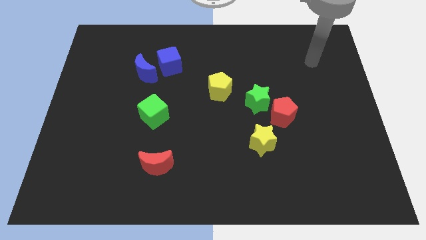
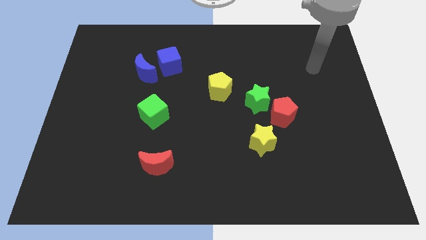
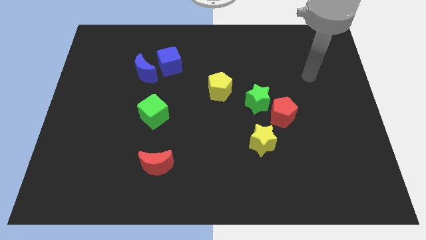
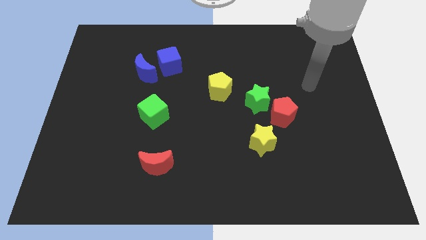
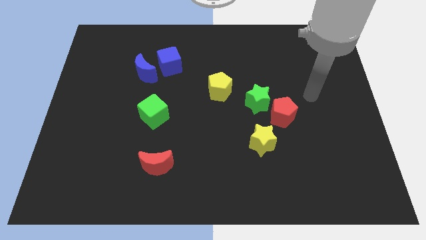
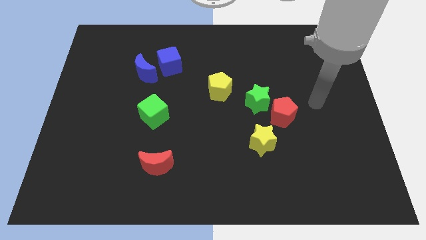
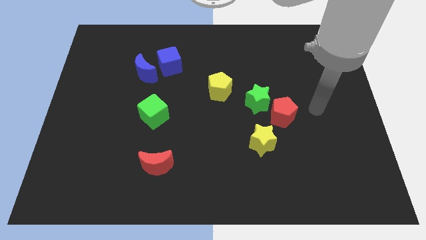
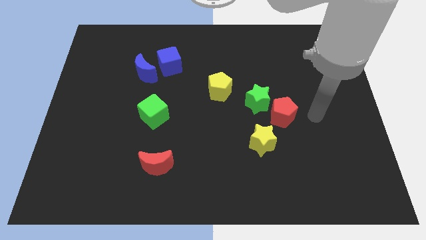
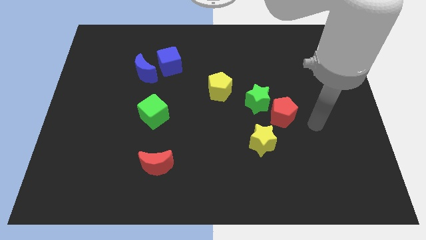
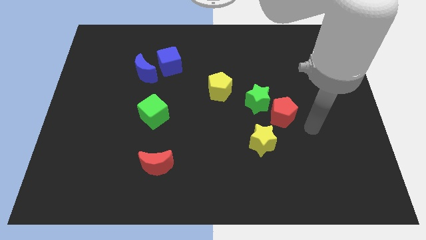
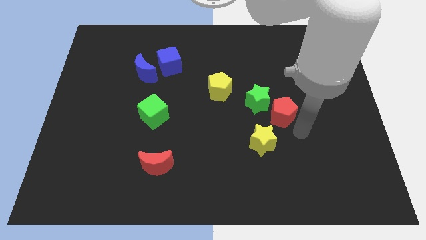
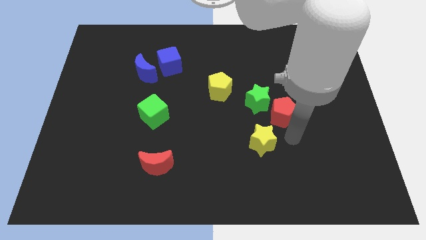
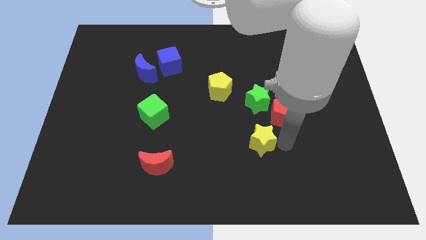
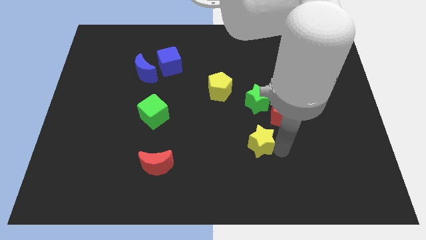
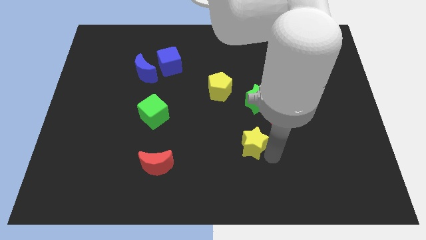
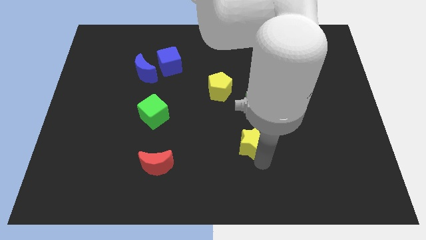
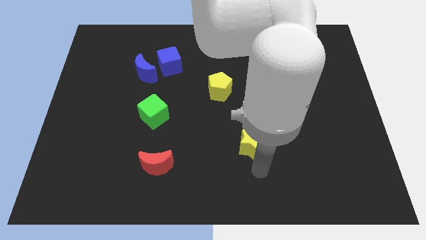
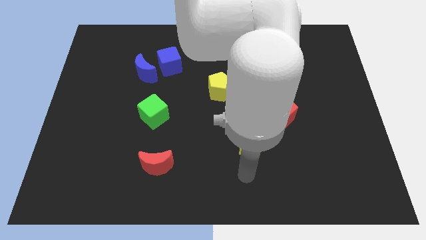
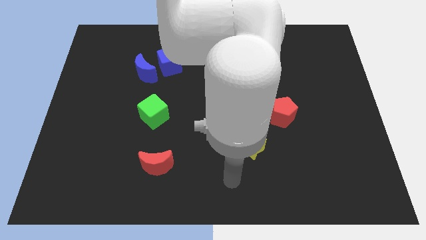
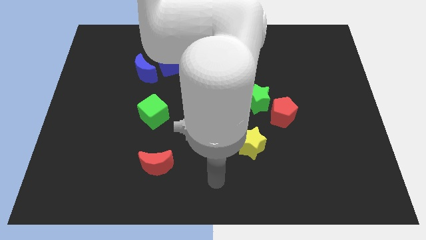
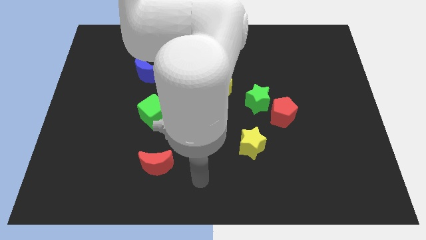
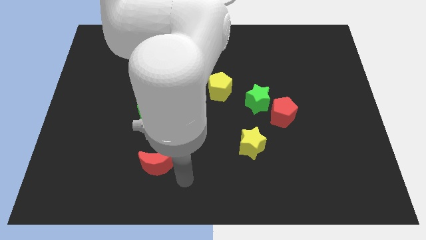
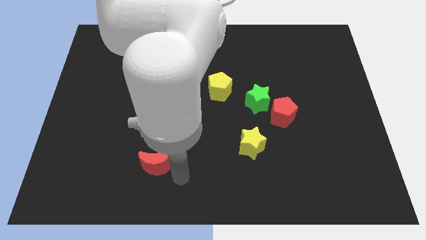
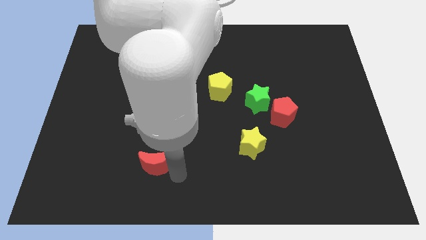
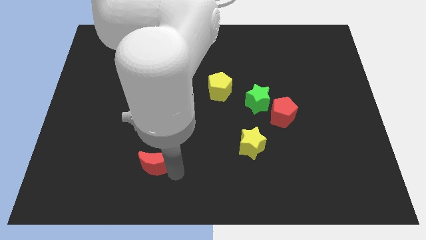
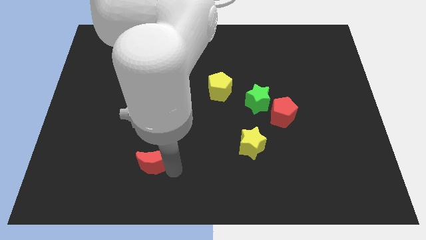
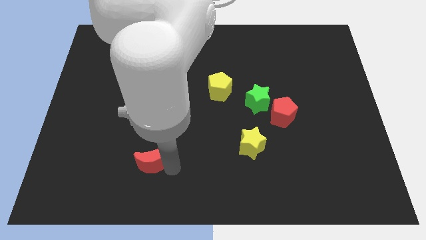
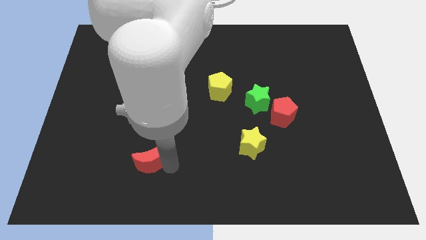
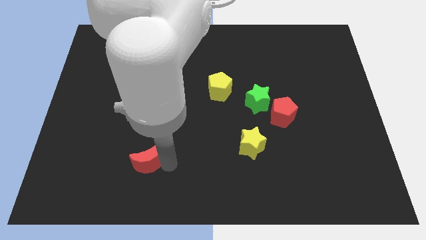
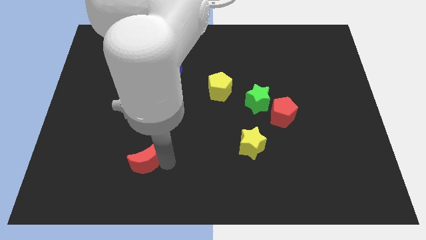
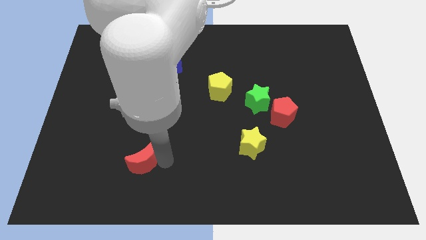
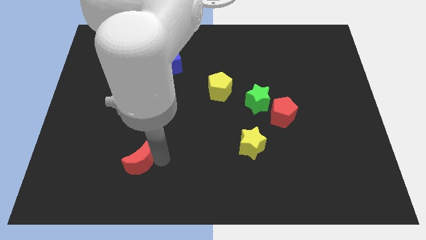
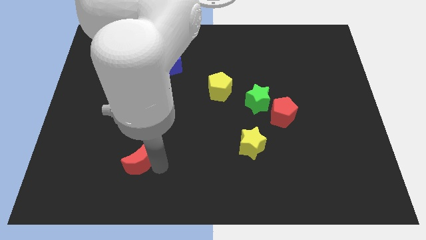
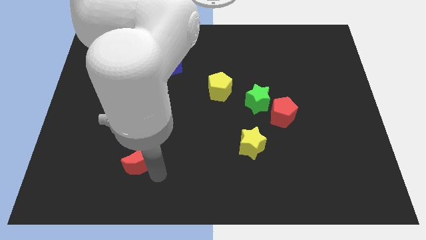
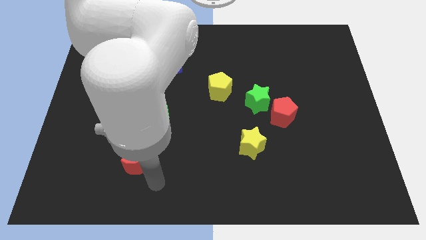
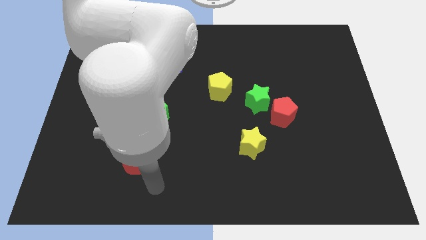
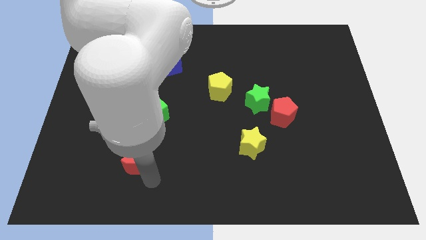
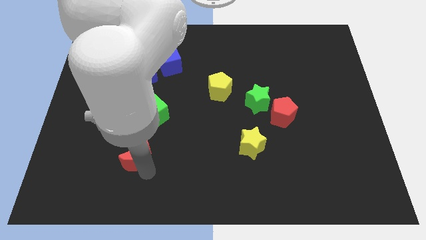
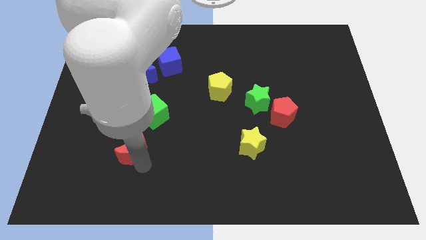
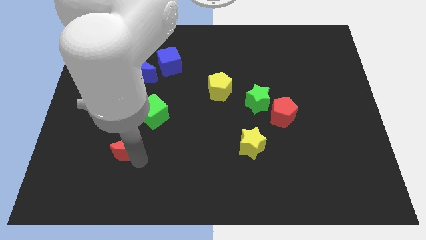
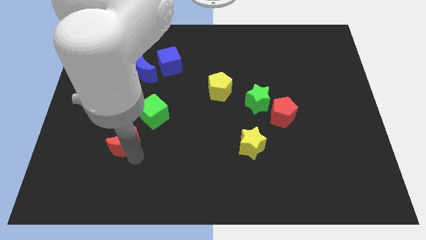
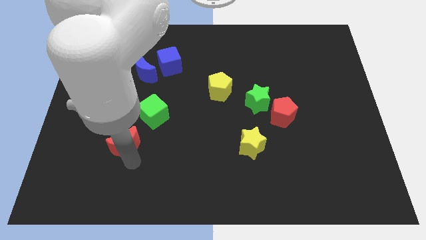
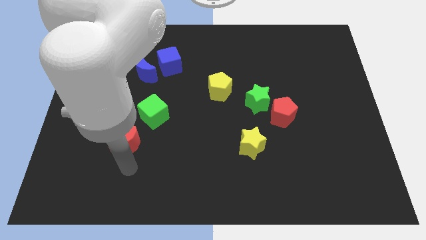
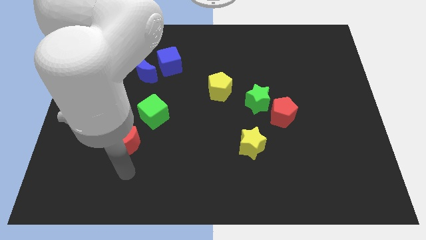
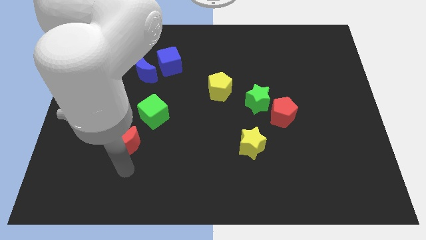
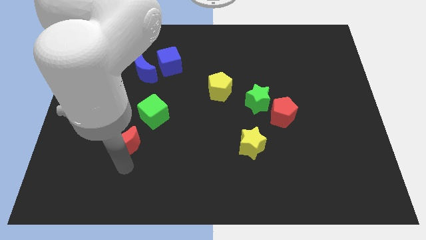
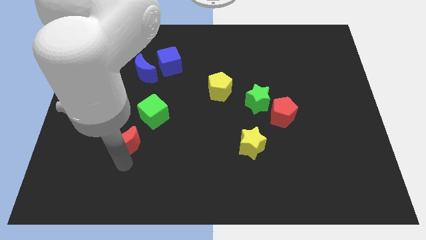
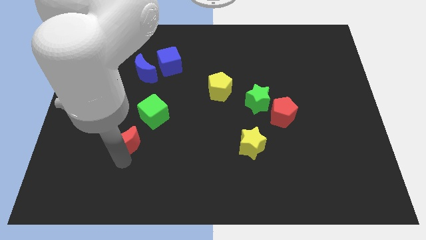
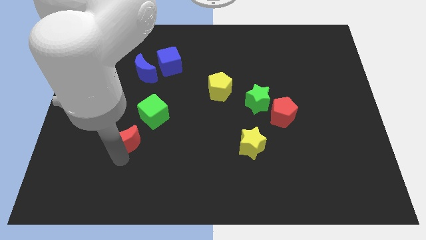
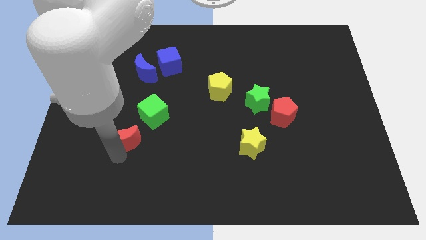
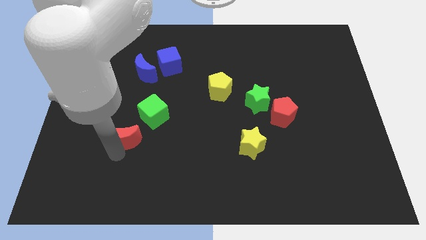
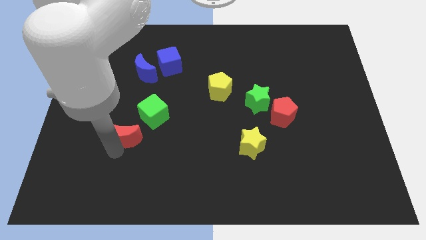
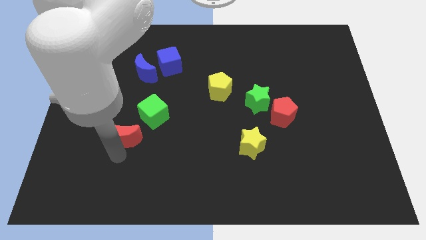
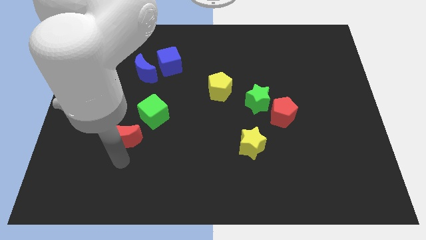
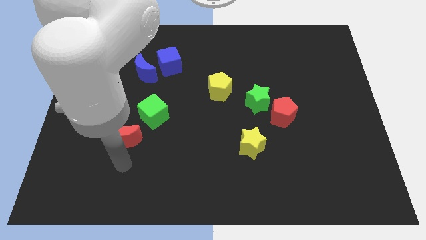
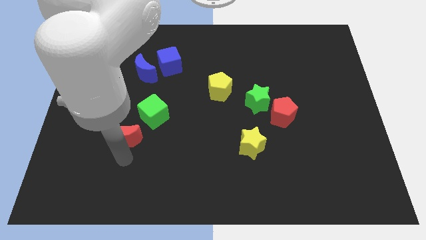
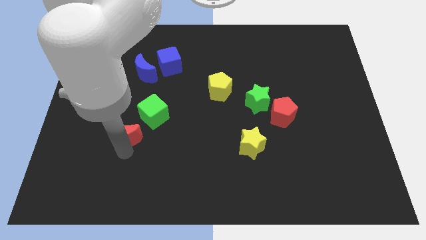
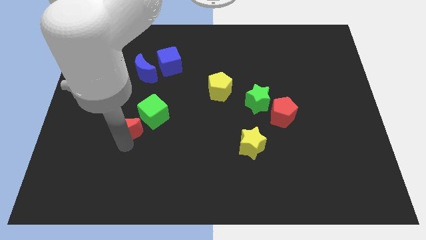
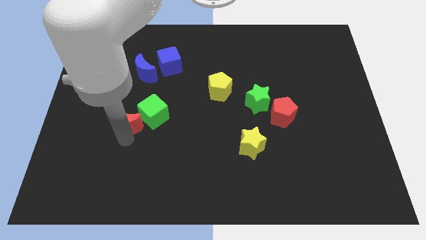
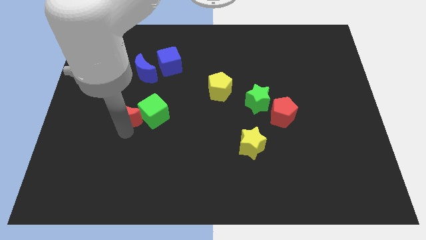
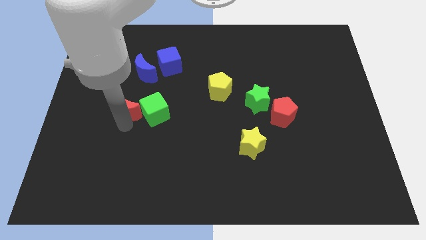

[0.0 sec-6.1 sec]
move the red moon to the top left of the green cube
